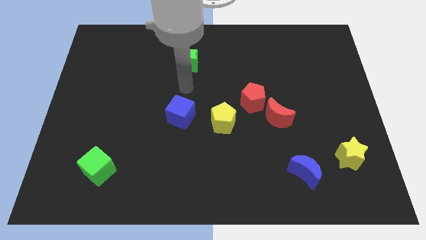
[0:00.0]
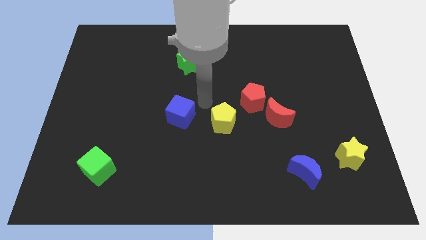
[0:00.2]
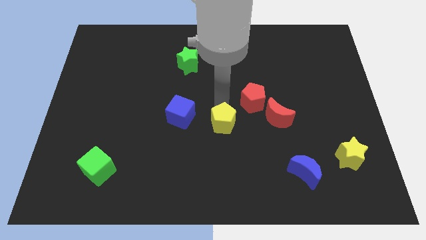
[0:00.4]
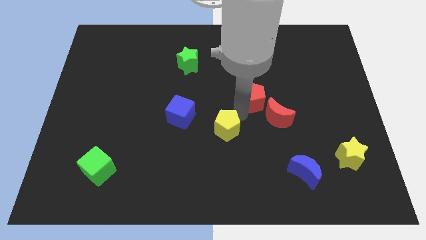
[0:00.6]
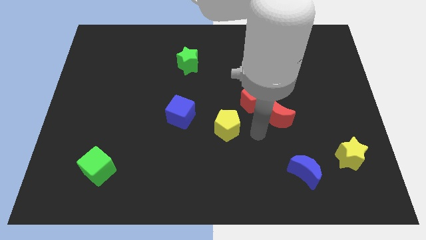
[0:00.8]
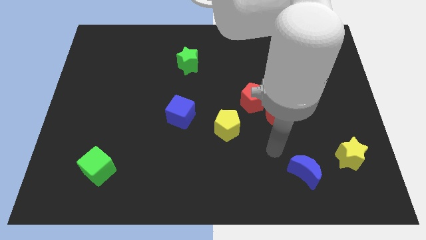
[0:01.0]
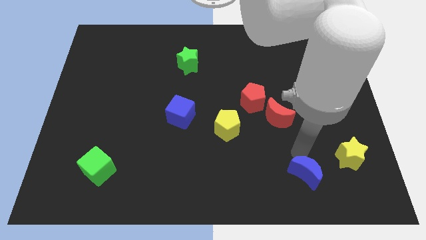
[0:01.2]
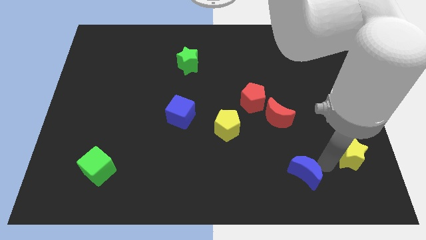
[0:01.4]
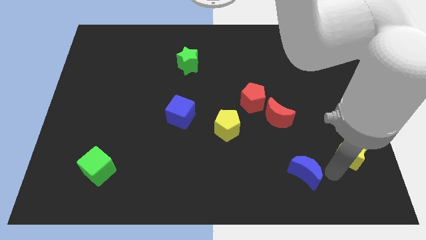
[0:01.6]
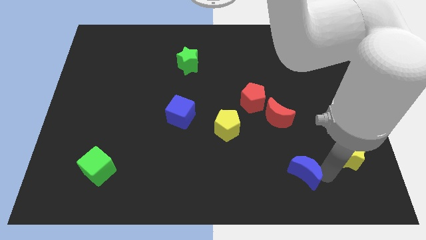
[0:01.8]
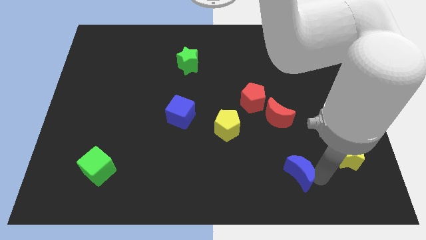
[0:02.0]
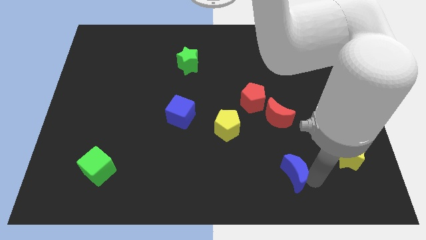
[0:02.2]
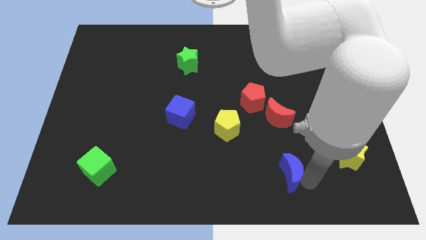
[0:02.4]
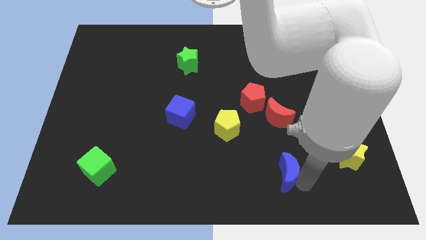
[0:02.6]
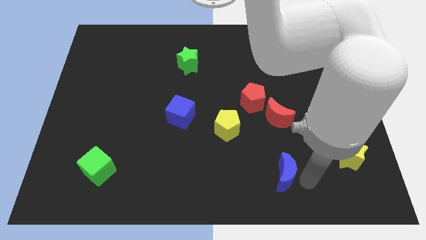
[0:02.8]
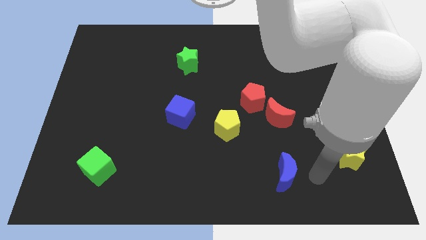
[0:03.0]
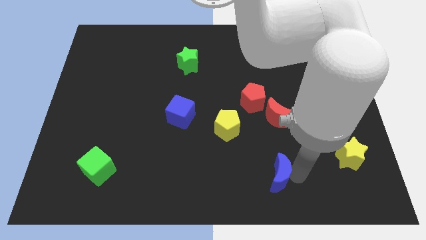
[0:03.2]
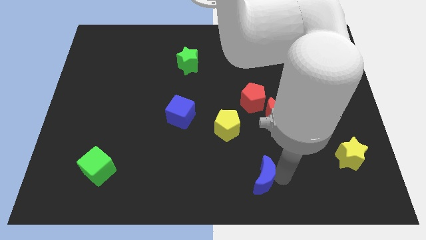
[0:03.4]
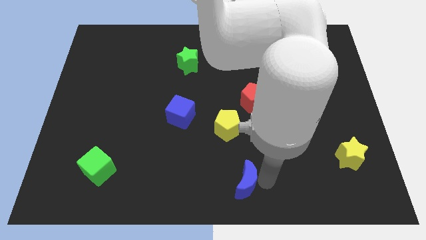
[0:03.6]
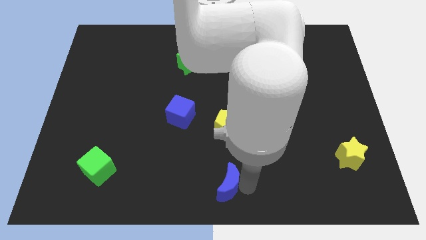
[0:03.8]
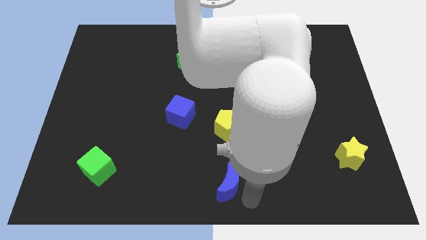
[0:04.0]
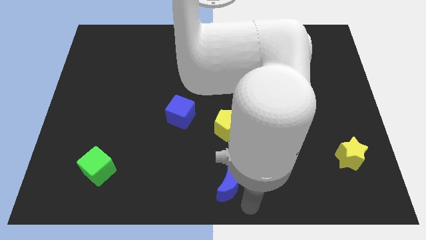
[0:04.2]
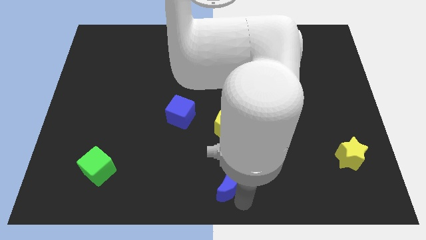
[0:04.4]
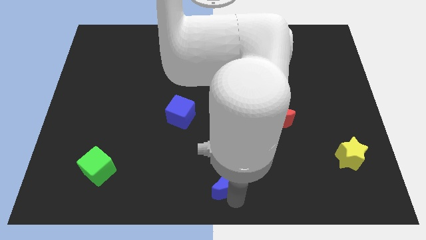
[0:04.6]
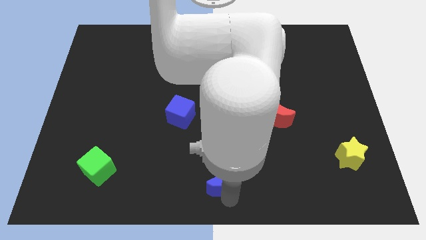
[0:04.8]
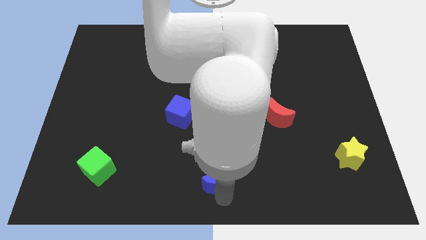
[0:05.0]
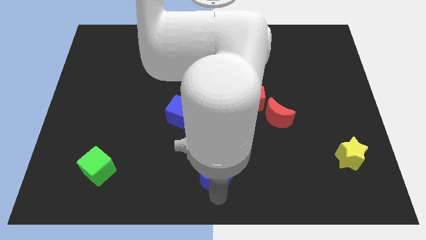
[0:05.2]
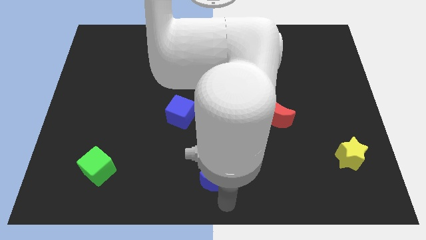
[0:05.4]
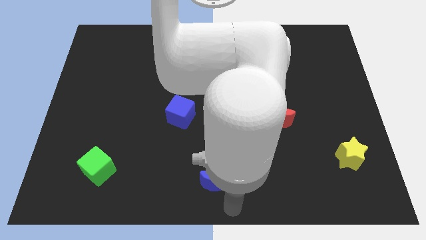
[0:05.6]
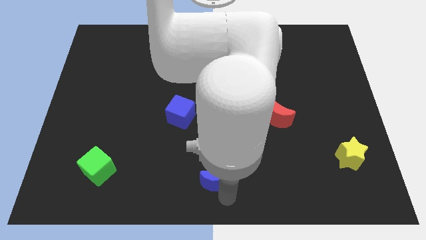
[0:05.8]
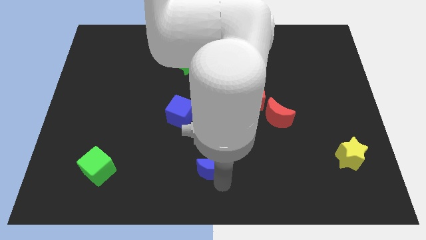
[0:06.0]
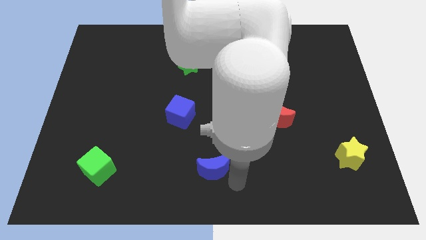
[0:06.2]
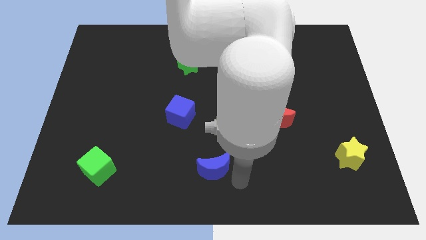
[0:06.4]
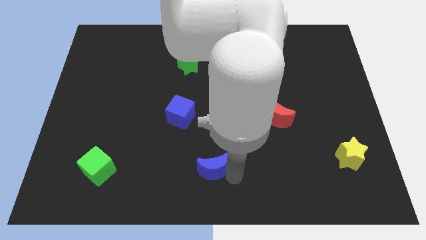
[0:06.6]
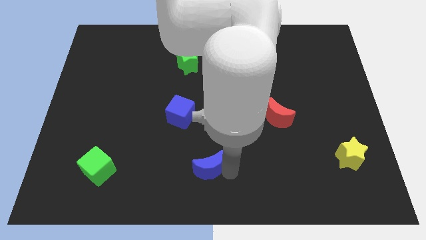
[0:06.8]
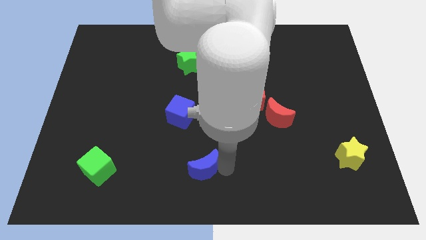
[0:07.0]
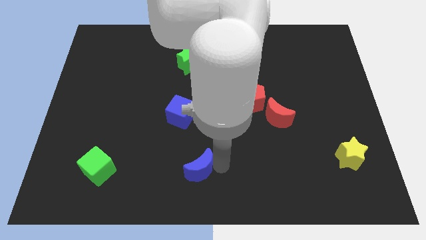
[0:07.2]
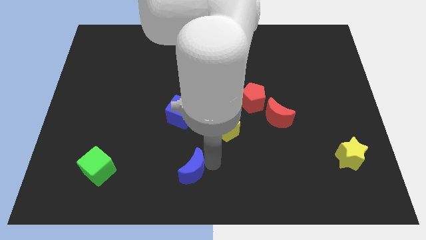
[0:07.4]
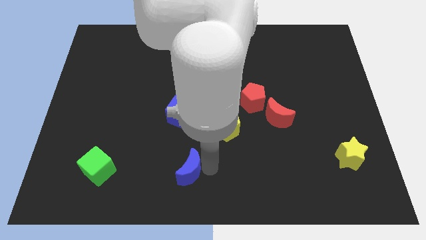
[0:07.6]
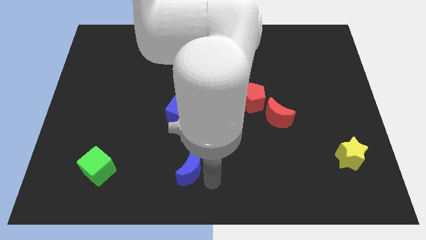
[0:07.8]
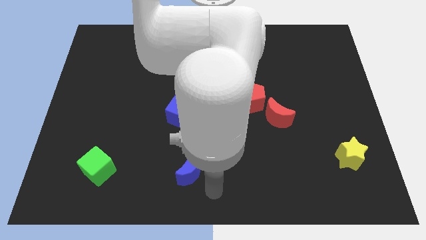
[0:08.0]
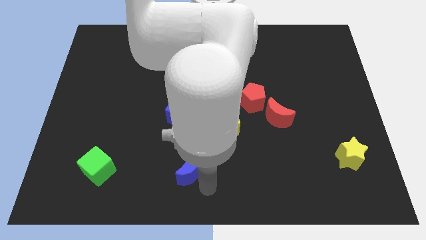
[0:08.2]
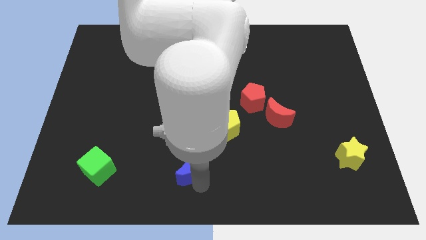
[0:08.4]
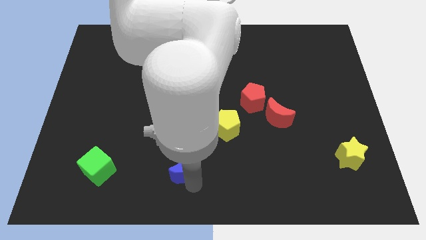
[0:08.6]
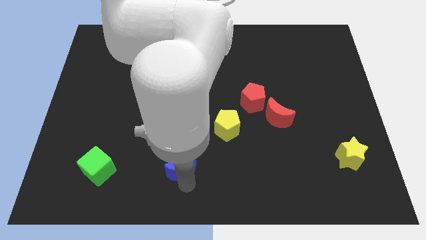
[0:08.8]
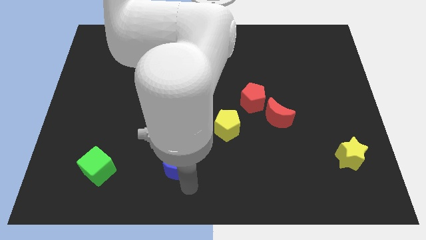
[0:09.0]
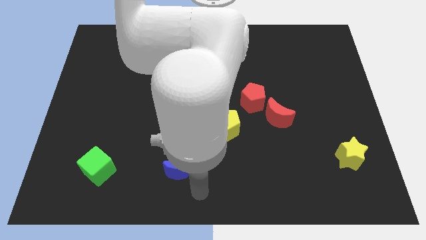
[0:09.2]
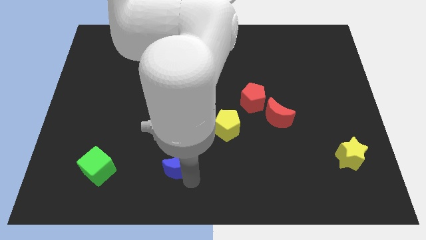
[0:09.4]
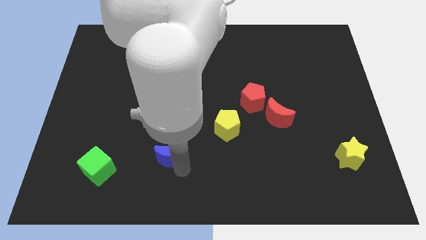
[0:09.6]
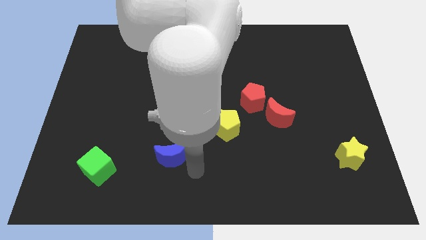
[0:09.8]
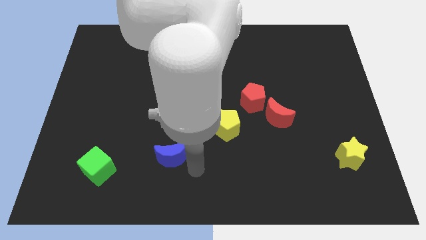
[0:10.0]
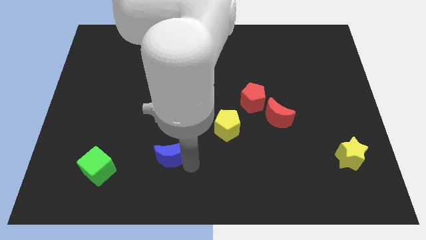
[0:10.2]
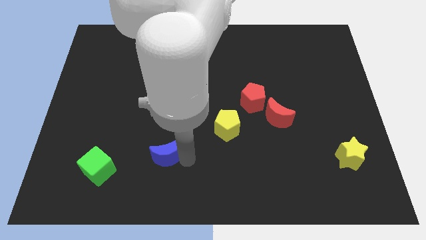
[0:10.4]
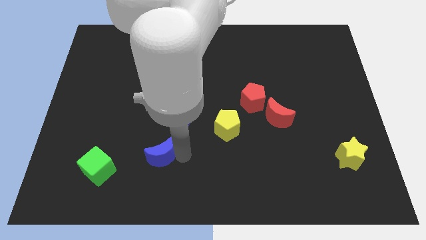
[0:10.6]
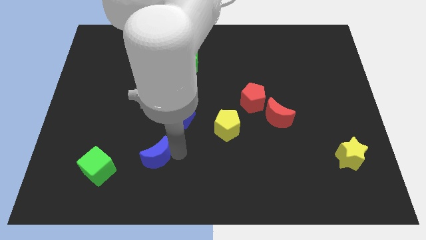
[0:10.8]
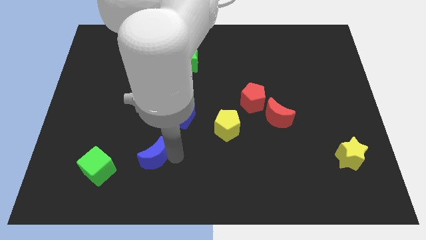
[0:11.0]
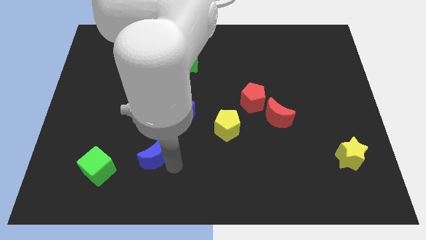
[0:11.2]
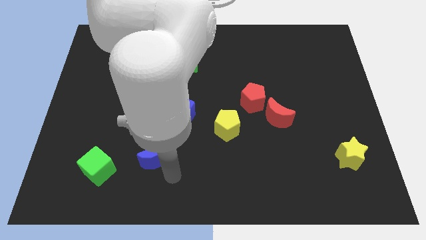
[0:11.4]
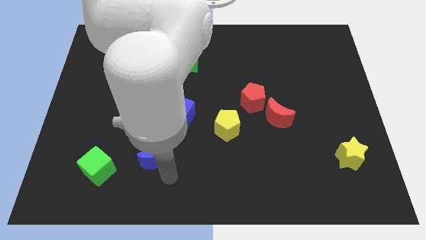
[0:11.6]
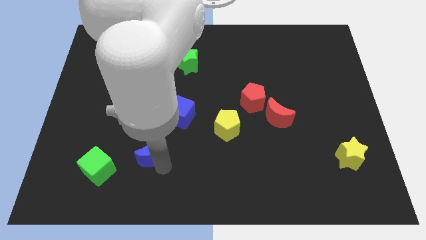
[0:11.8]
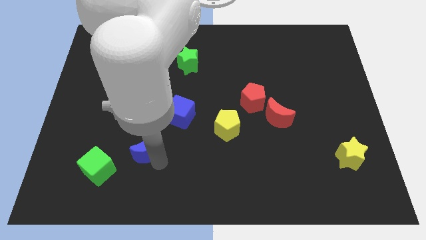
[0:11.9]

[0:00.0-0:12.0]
push the blue moon diagonally up and to the right of the green cube
